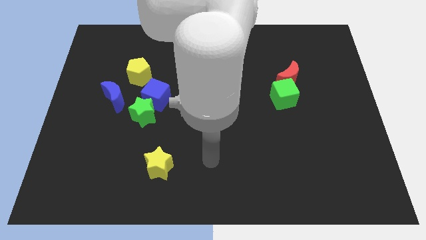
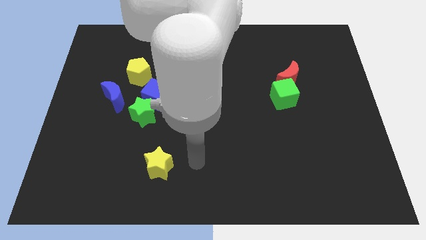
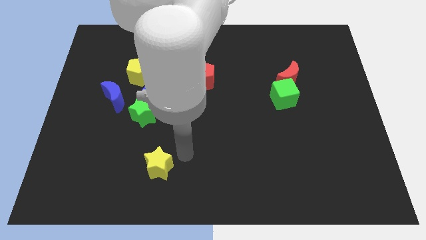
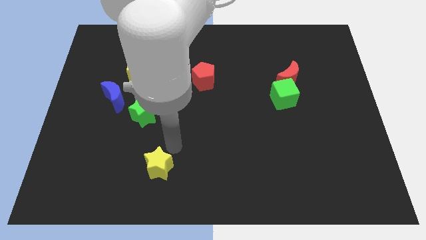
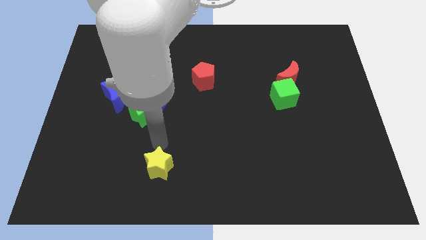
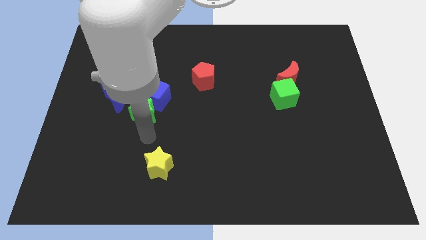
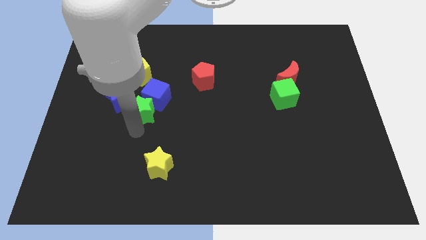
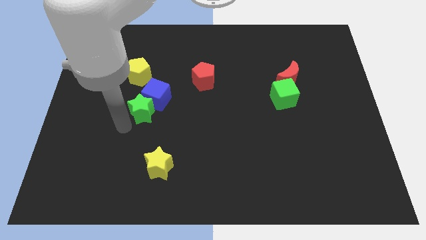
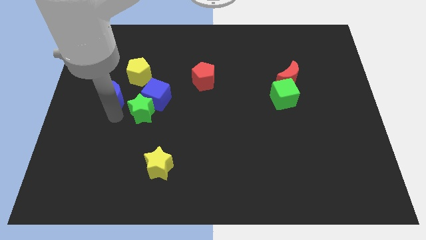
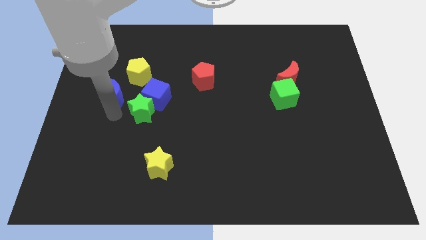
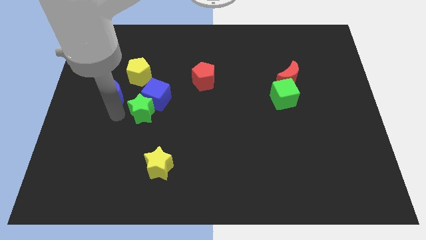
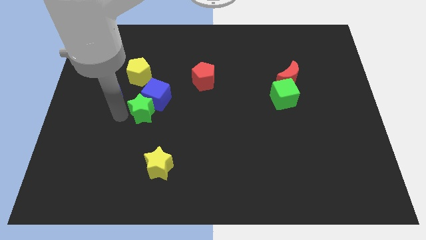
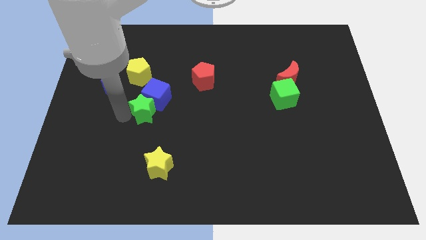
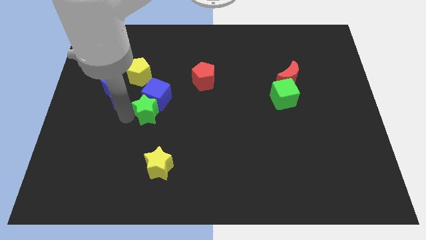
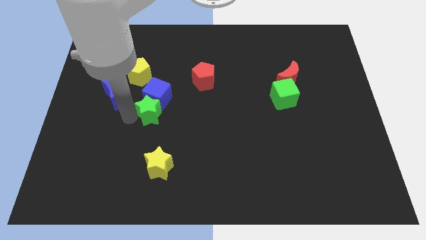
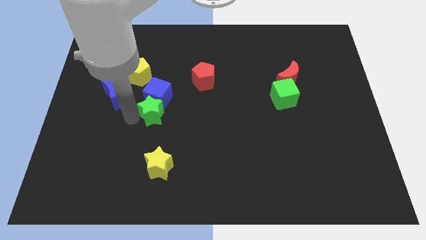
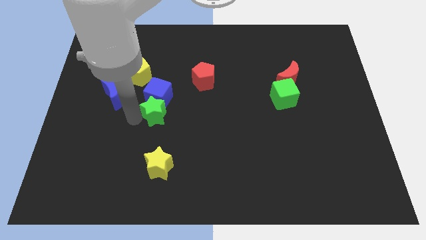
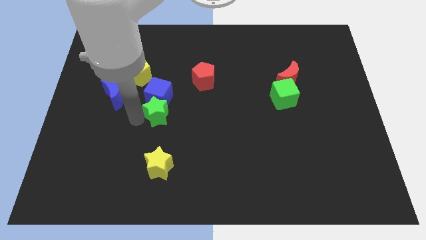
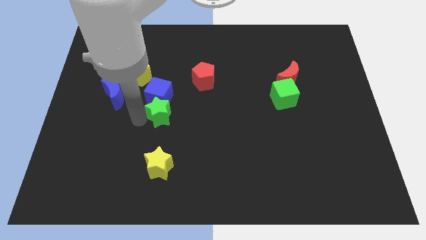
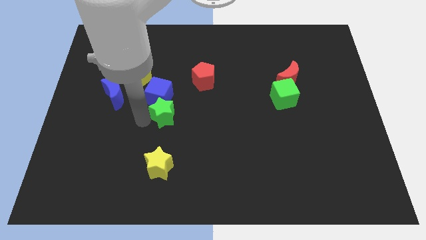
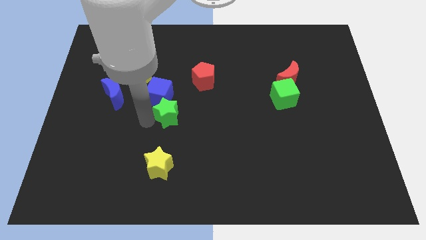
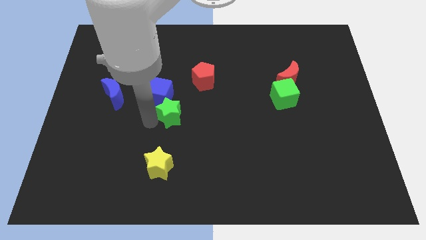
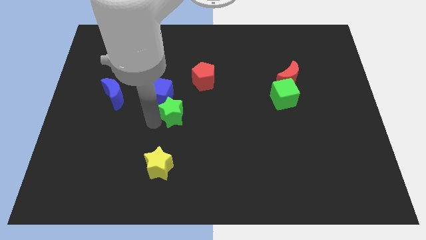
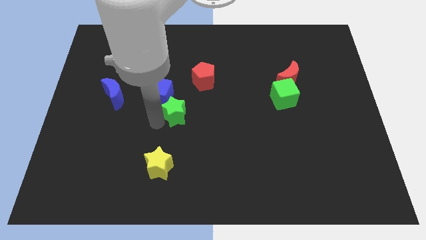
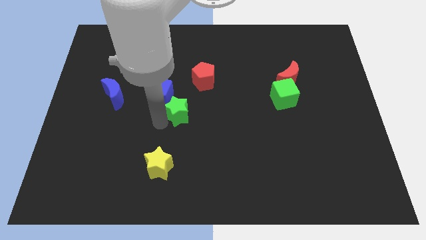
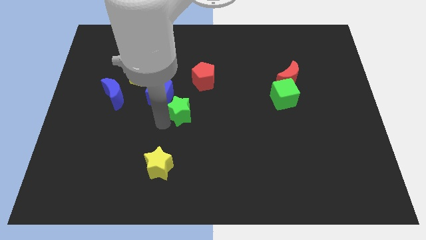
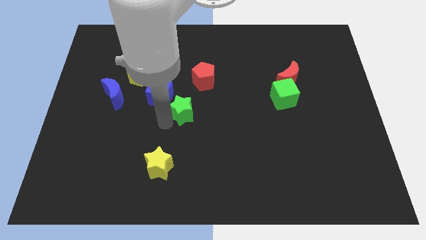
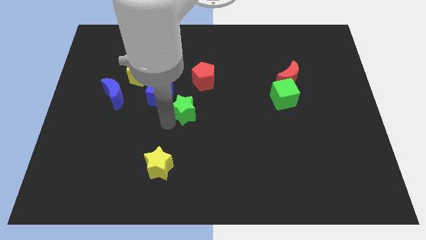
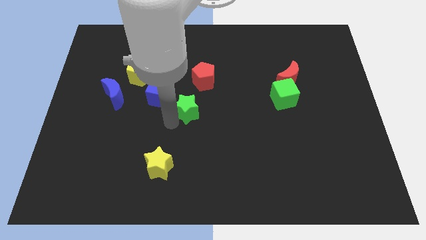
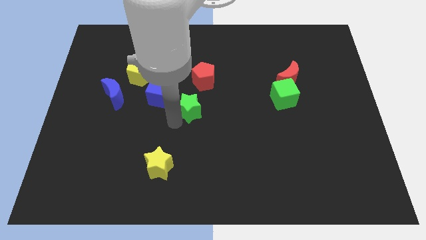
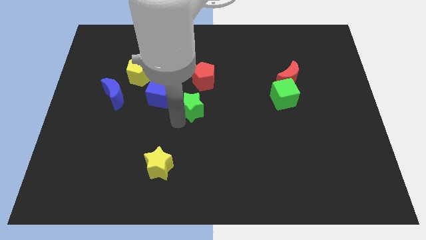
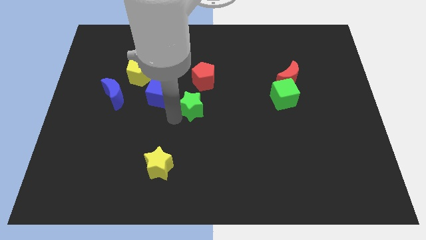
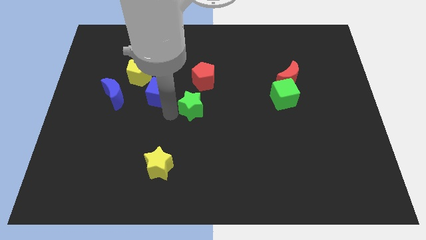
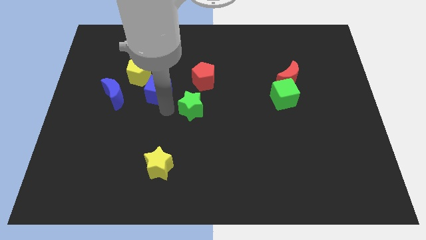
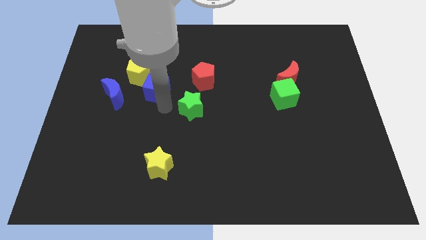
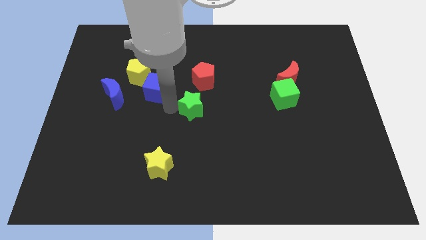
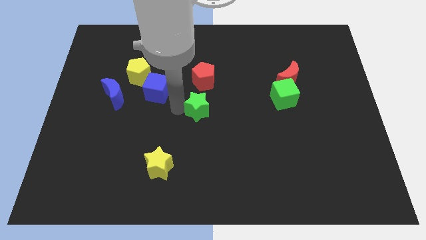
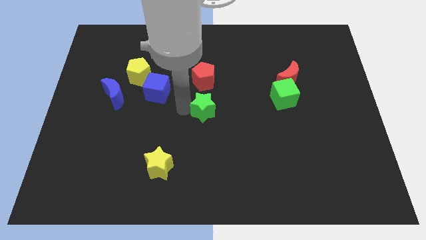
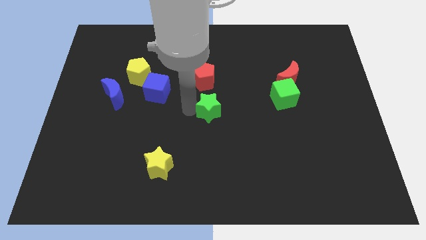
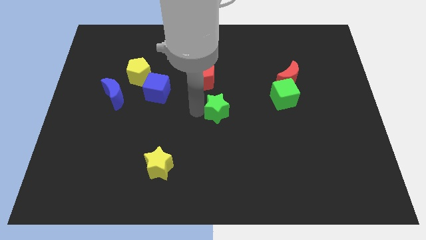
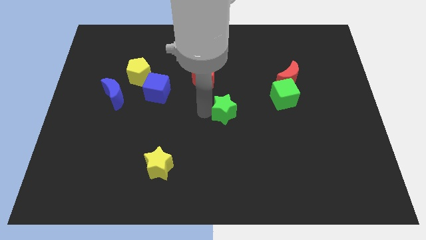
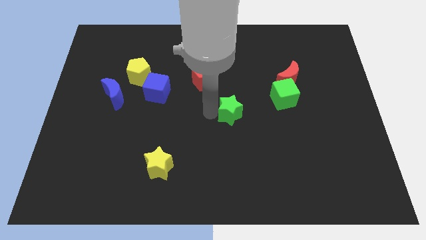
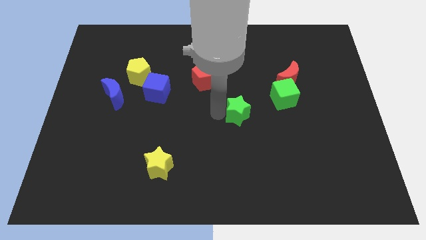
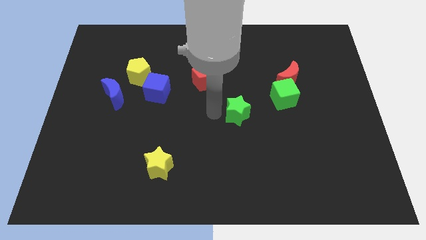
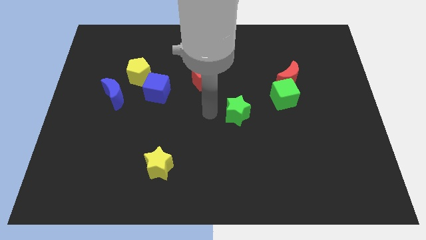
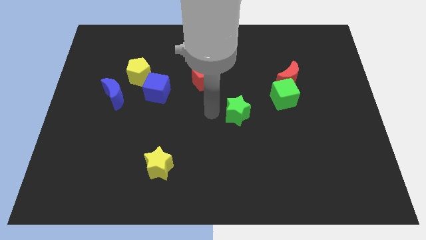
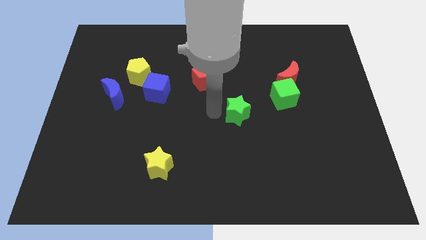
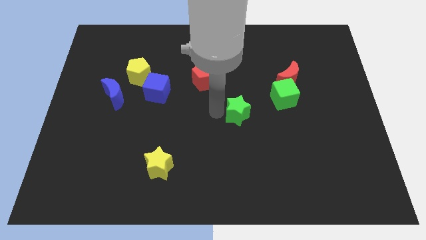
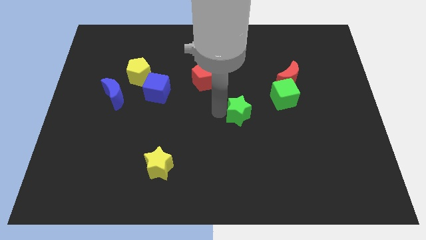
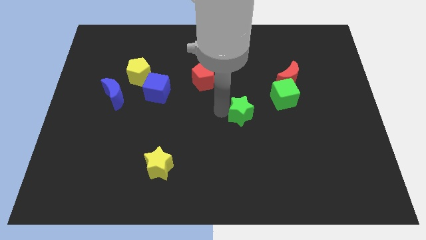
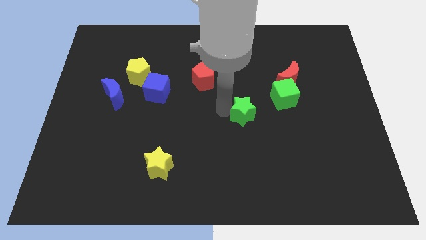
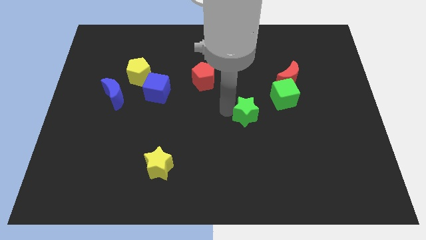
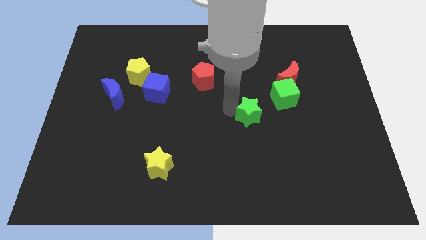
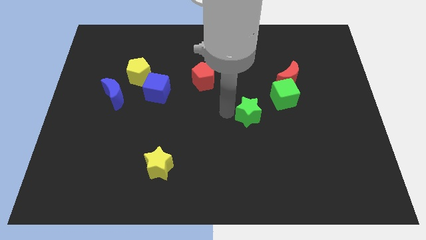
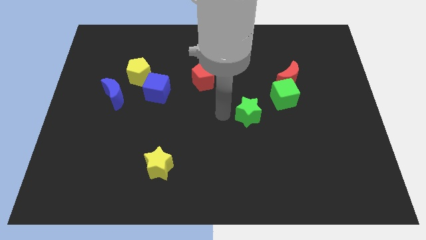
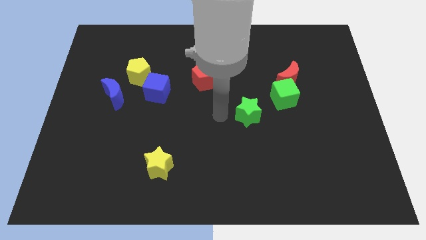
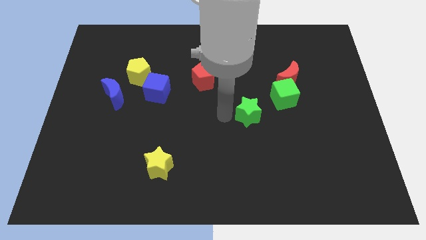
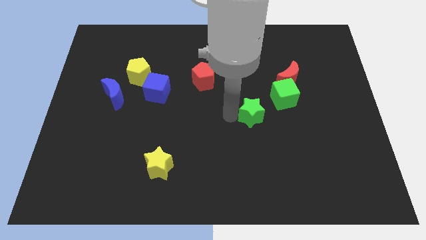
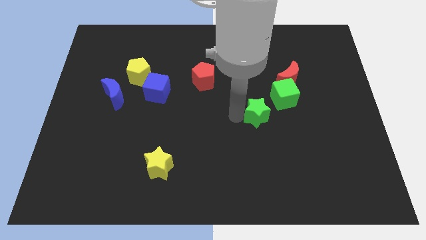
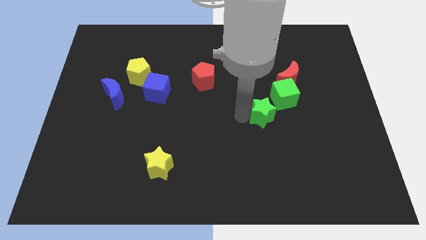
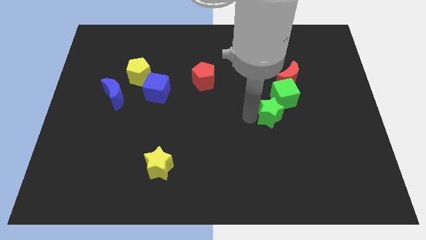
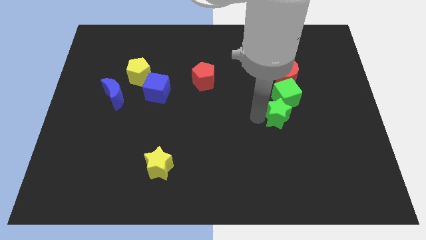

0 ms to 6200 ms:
push the green star to the bottom of the red moon

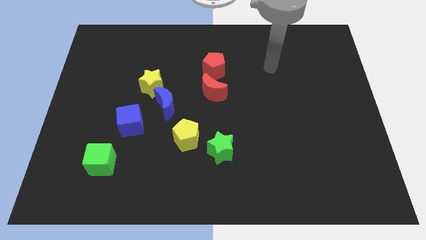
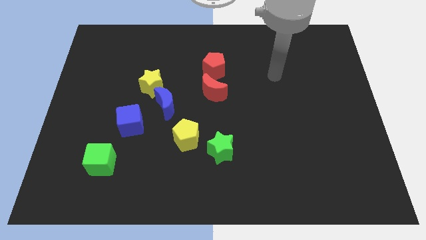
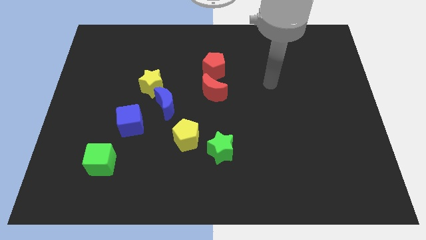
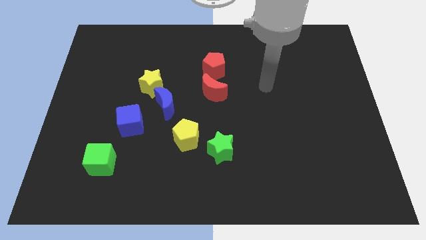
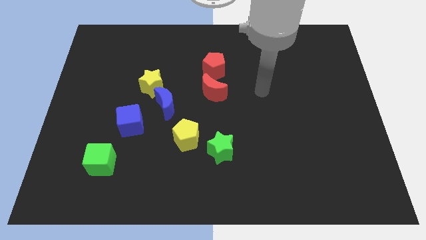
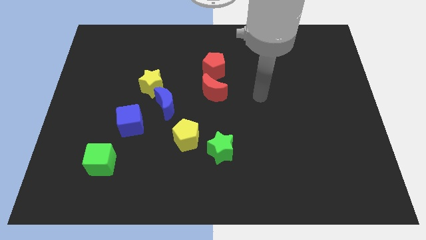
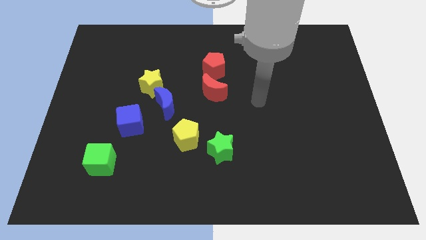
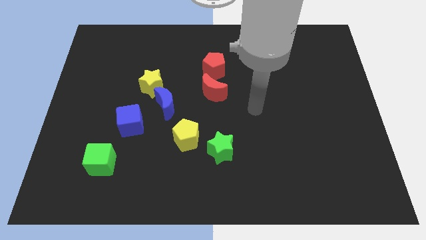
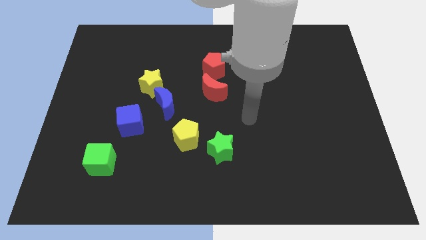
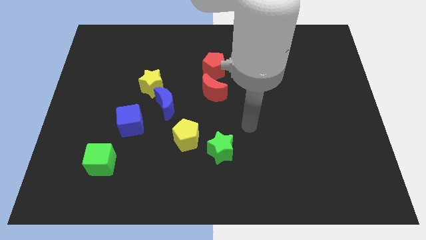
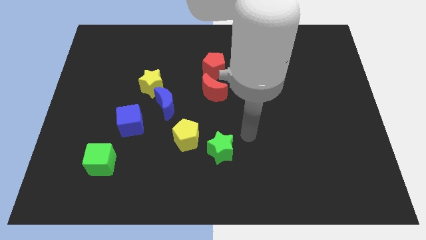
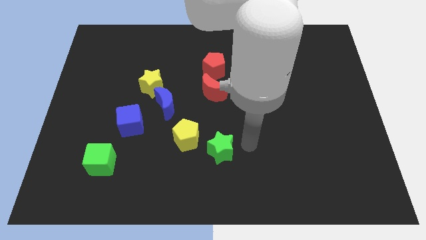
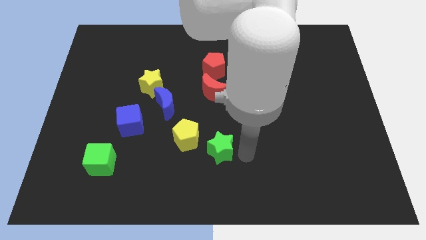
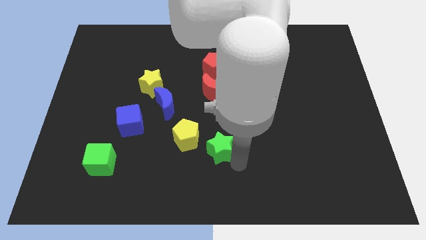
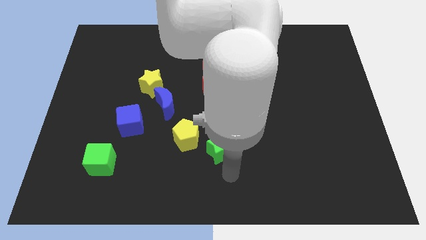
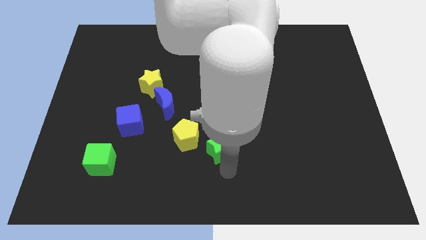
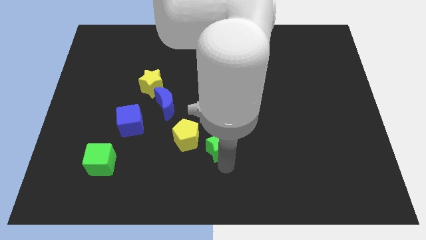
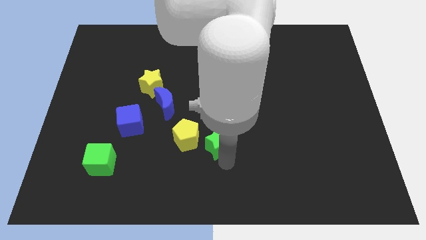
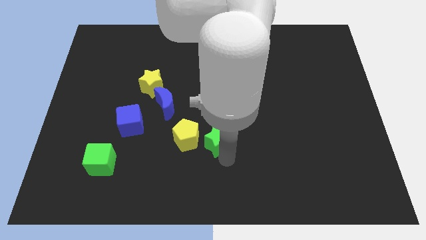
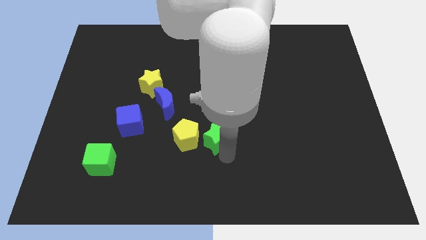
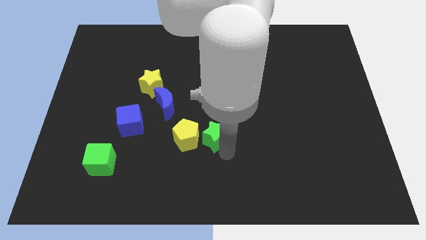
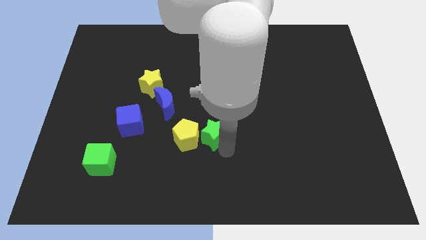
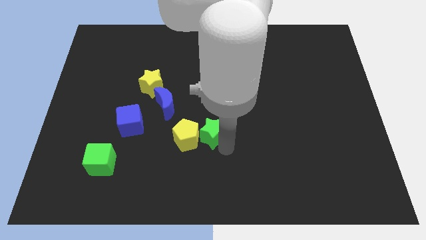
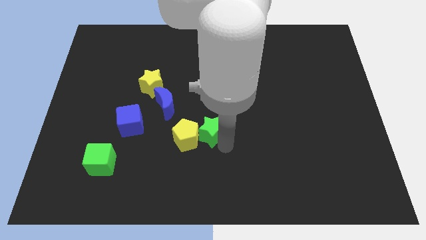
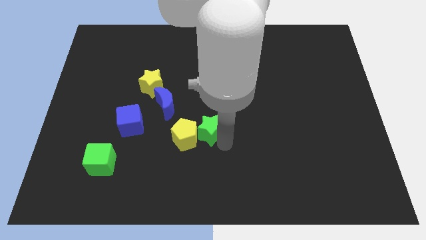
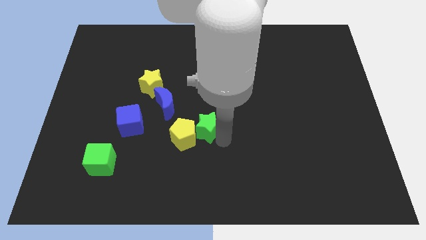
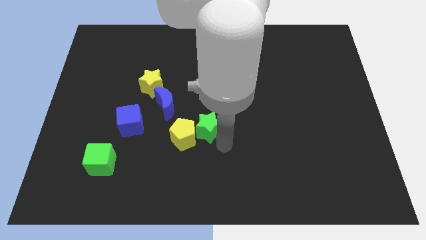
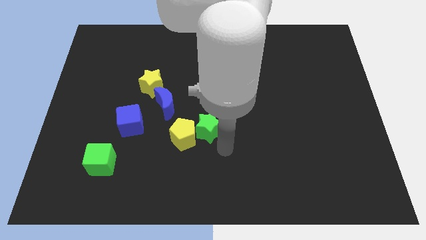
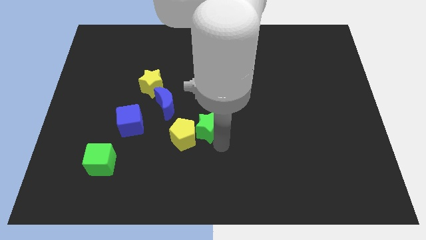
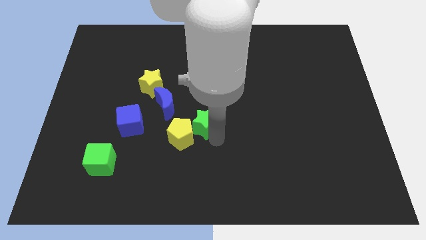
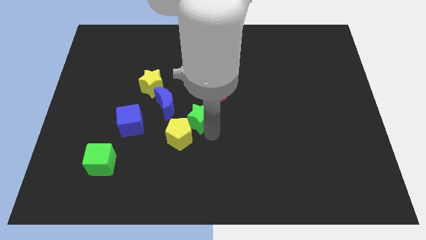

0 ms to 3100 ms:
put the green star to the bottom left of the red moon
